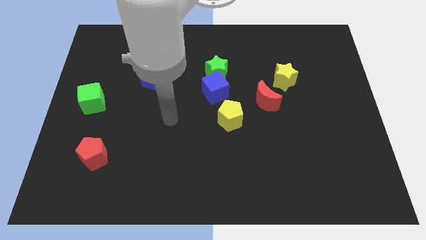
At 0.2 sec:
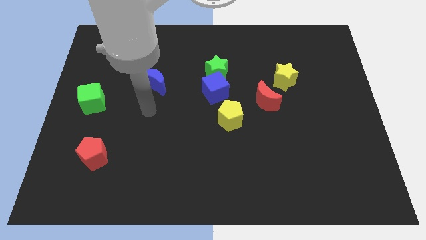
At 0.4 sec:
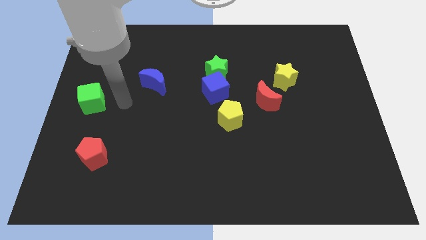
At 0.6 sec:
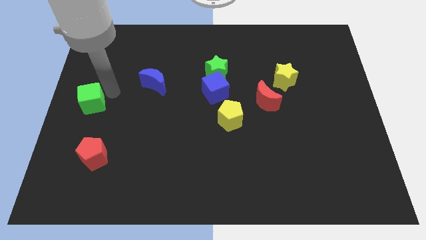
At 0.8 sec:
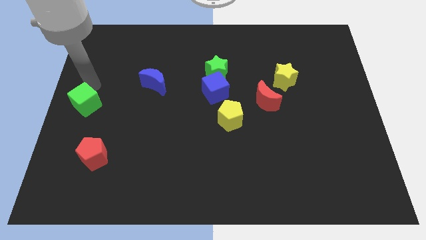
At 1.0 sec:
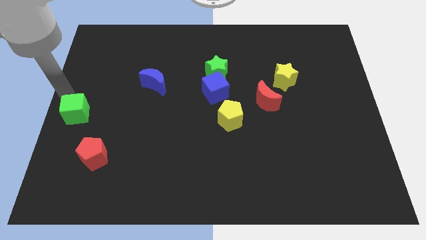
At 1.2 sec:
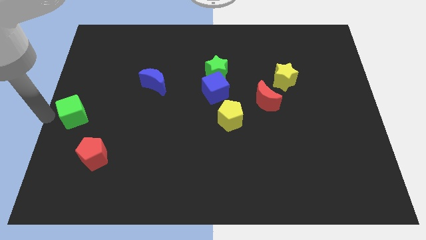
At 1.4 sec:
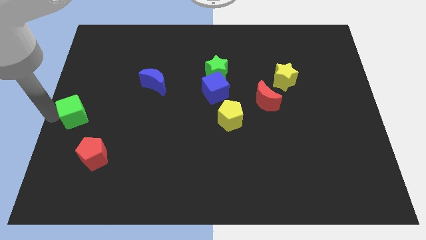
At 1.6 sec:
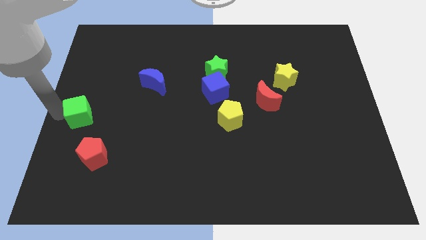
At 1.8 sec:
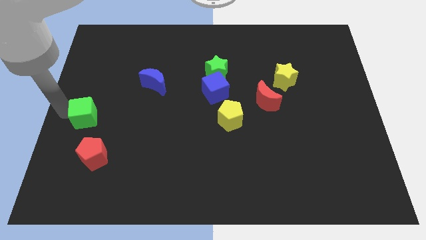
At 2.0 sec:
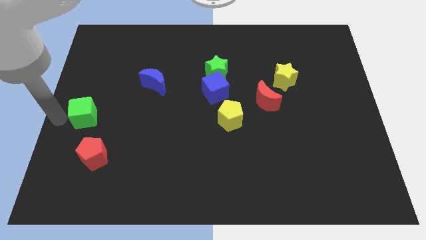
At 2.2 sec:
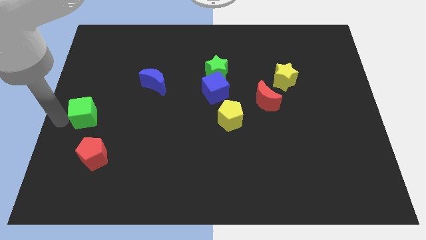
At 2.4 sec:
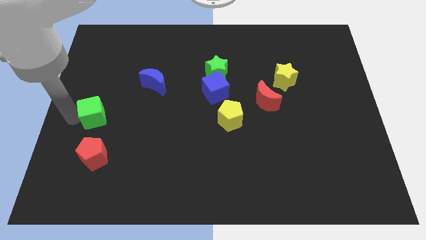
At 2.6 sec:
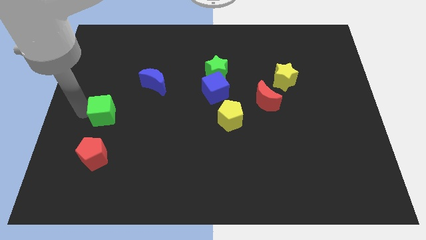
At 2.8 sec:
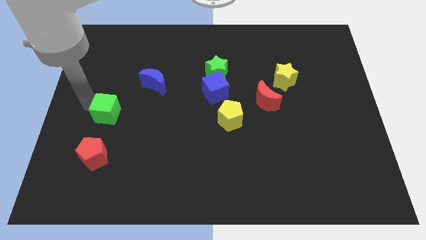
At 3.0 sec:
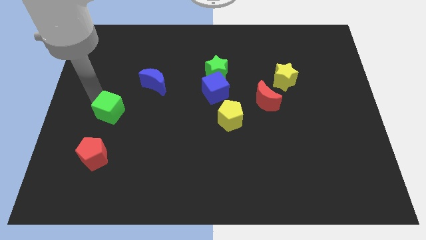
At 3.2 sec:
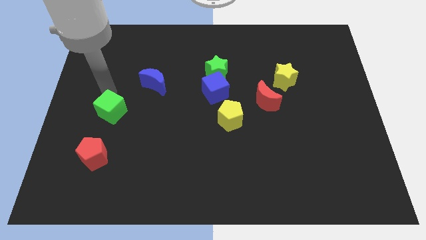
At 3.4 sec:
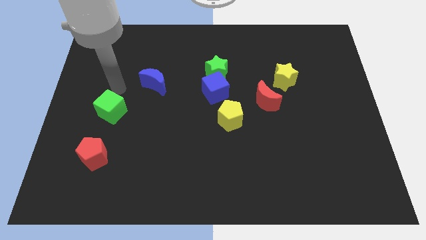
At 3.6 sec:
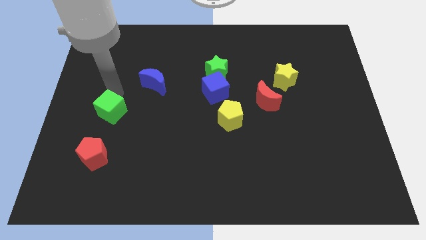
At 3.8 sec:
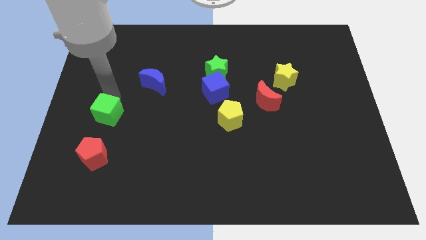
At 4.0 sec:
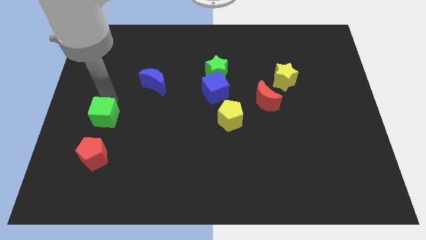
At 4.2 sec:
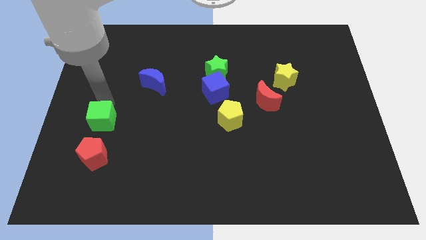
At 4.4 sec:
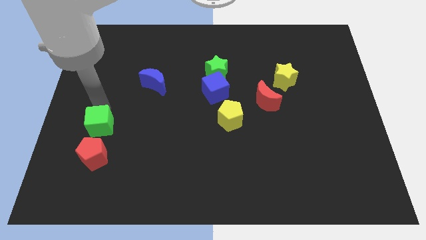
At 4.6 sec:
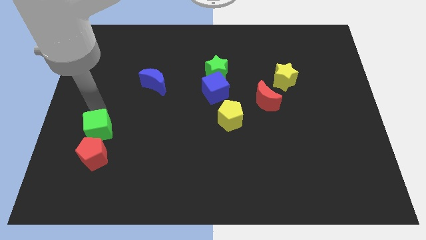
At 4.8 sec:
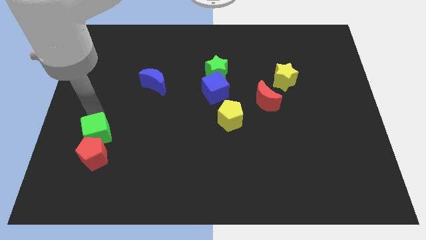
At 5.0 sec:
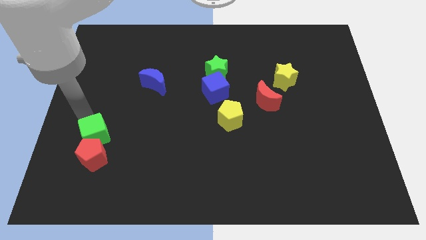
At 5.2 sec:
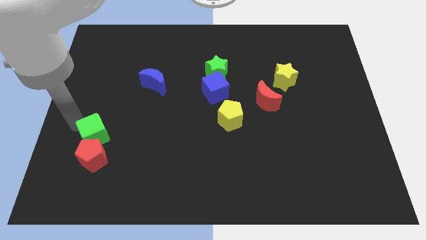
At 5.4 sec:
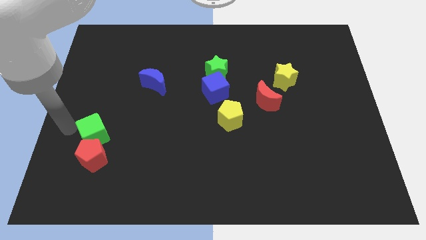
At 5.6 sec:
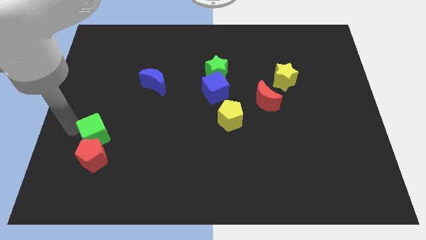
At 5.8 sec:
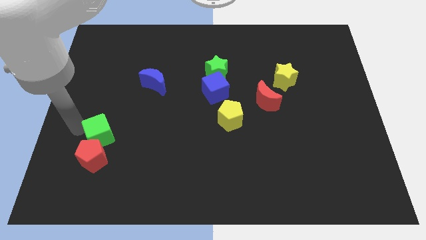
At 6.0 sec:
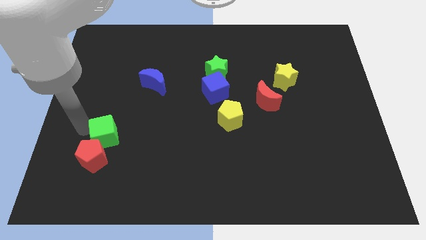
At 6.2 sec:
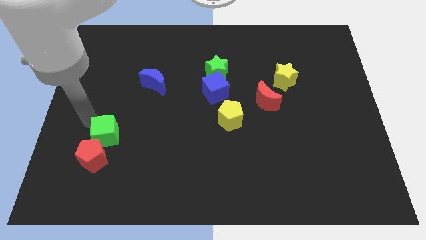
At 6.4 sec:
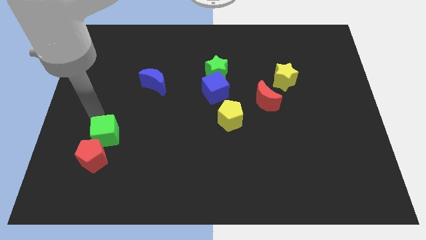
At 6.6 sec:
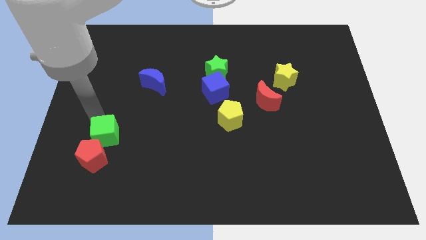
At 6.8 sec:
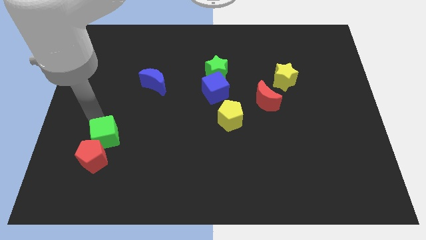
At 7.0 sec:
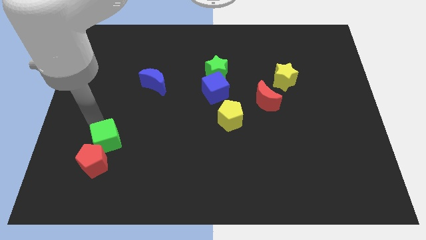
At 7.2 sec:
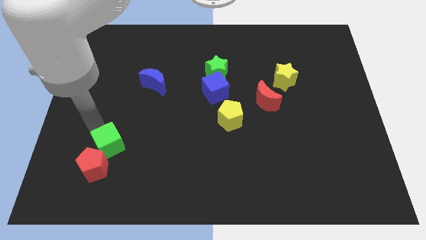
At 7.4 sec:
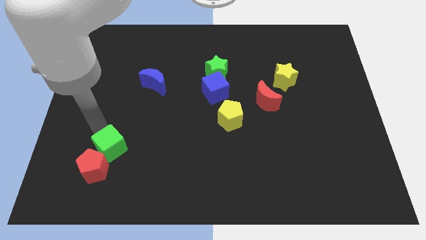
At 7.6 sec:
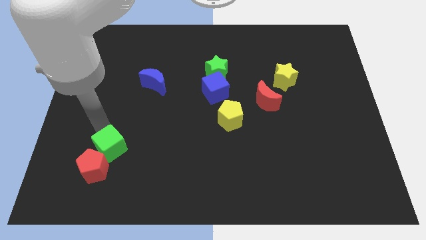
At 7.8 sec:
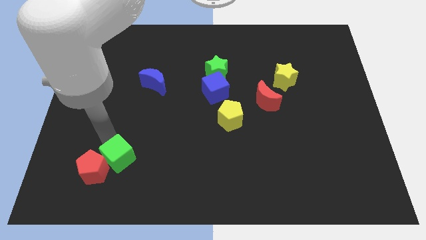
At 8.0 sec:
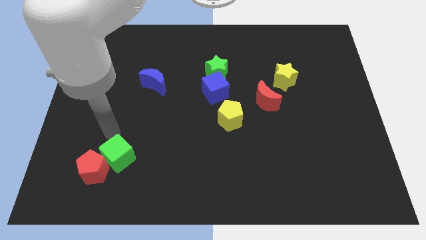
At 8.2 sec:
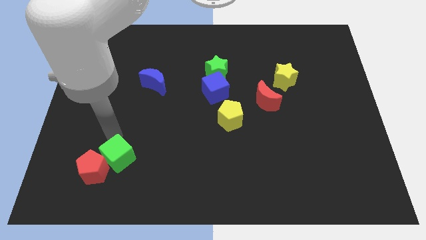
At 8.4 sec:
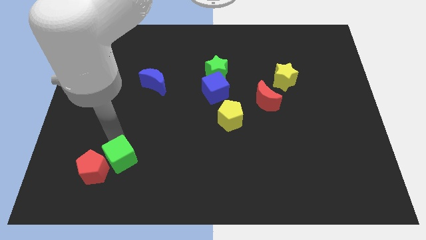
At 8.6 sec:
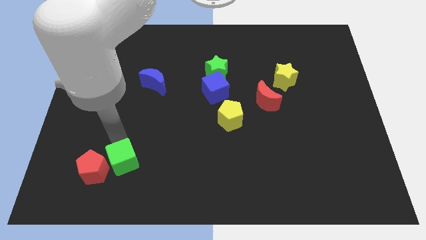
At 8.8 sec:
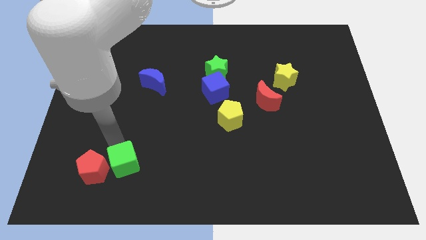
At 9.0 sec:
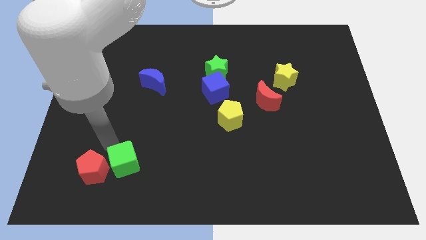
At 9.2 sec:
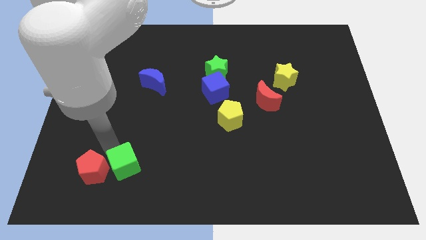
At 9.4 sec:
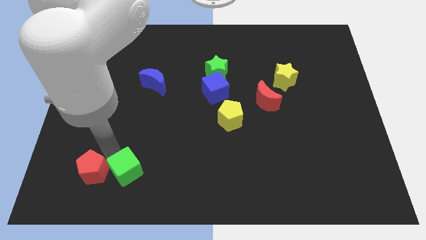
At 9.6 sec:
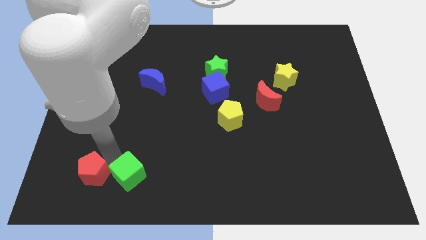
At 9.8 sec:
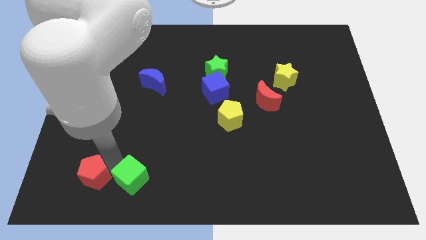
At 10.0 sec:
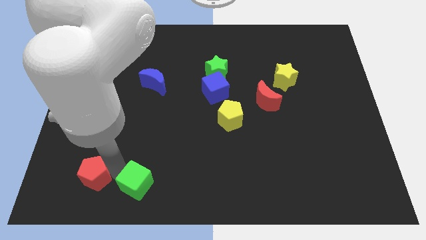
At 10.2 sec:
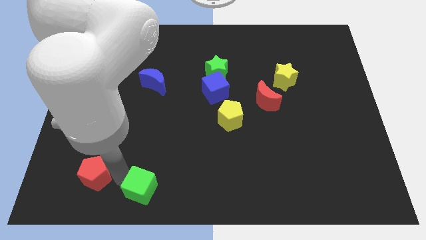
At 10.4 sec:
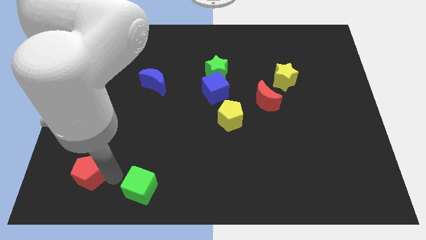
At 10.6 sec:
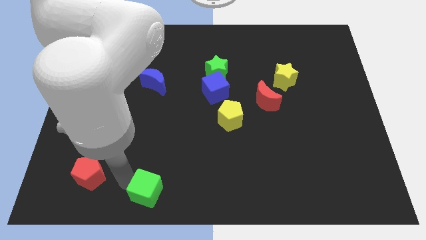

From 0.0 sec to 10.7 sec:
slide the green cube to the bottom side
